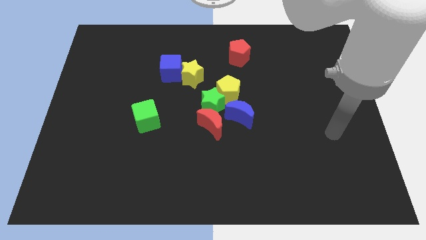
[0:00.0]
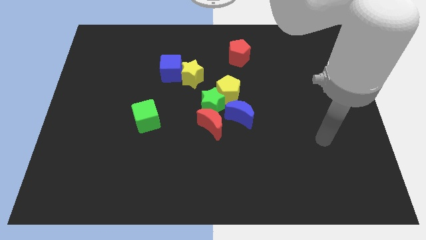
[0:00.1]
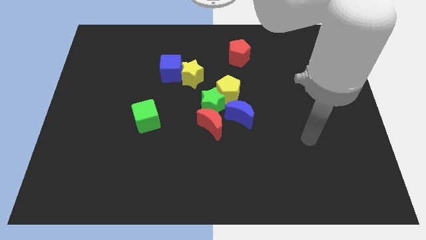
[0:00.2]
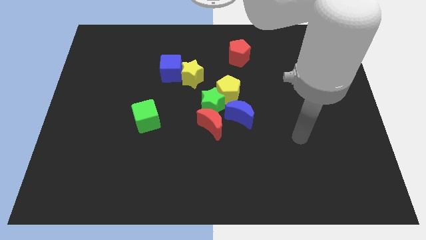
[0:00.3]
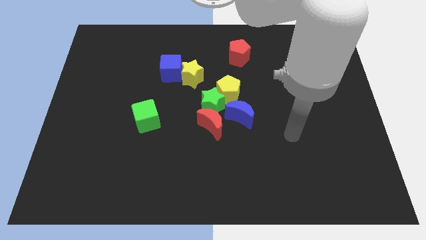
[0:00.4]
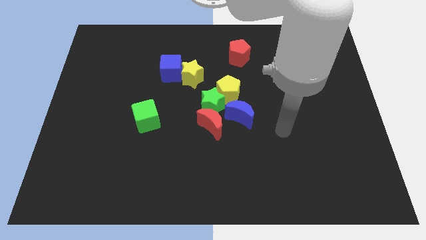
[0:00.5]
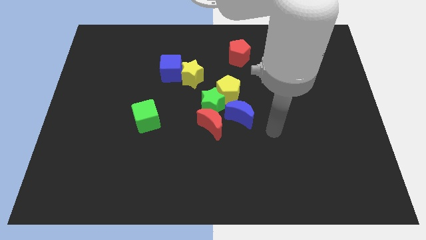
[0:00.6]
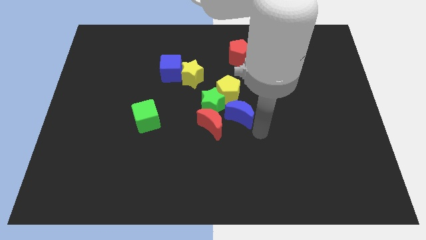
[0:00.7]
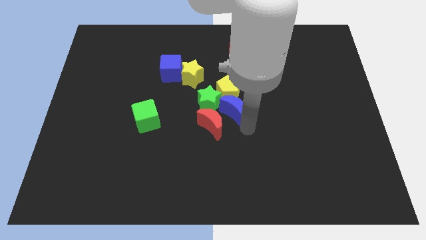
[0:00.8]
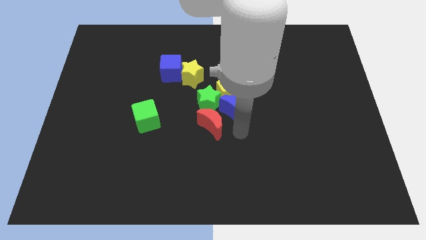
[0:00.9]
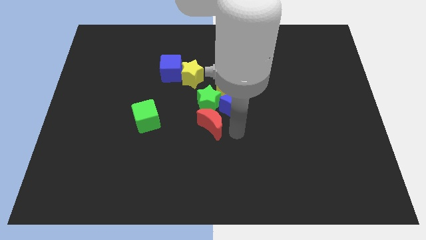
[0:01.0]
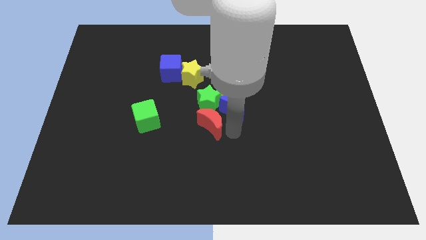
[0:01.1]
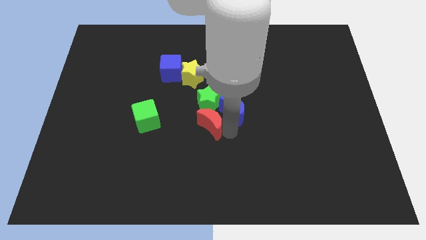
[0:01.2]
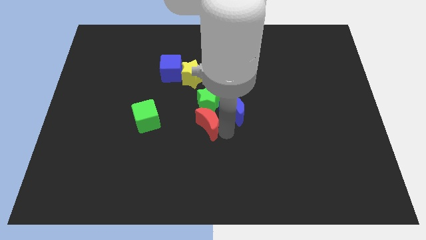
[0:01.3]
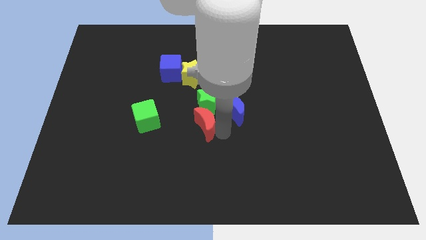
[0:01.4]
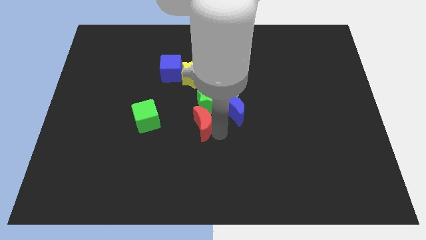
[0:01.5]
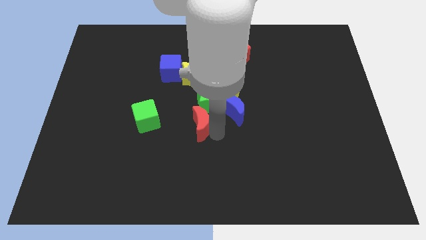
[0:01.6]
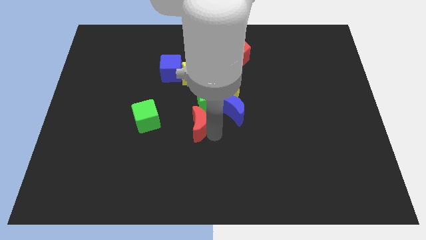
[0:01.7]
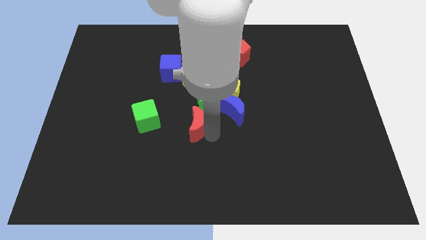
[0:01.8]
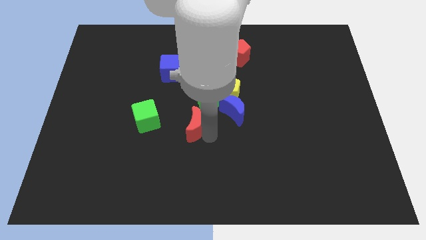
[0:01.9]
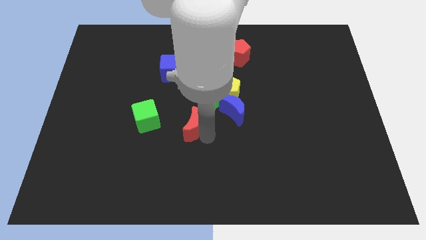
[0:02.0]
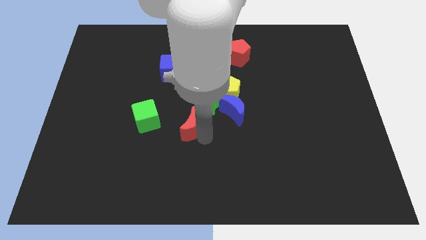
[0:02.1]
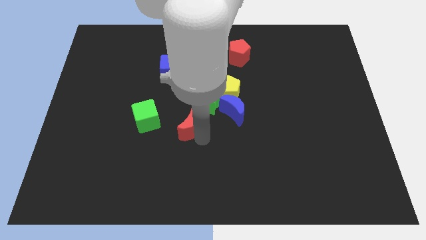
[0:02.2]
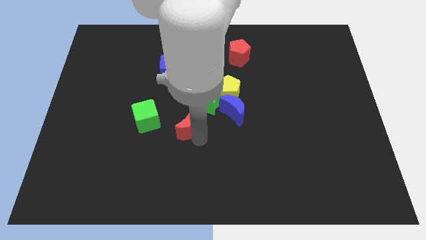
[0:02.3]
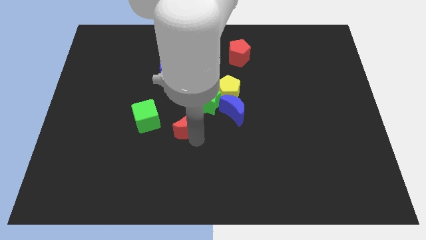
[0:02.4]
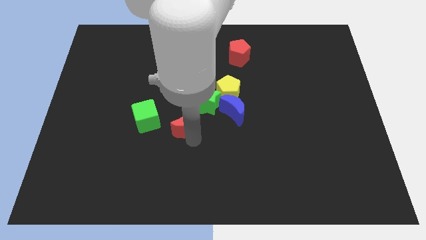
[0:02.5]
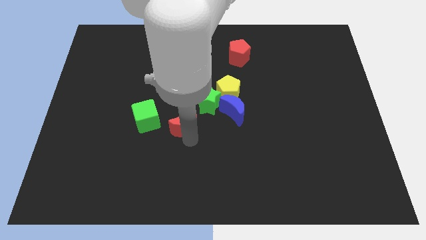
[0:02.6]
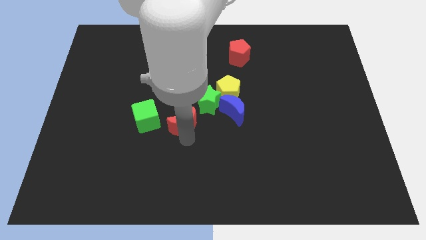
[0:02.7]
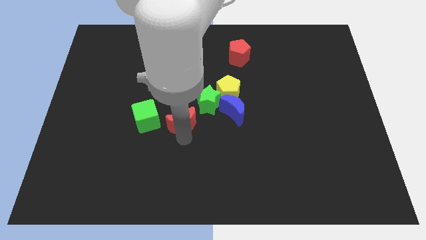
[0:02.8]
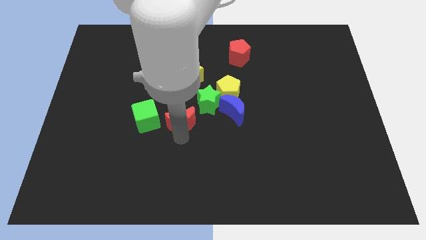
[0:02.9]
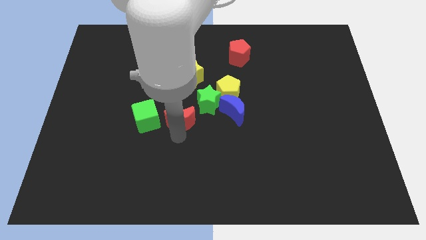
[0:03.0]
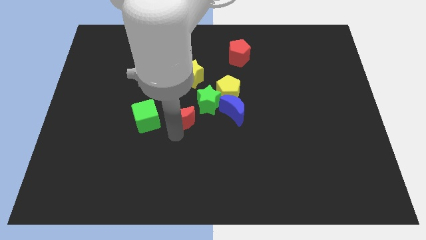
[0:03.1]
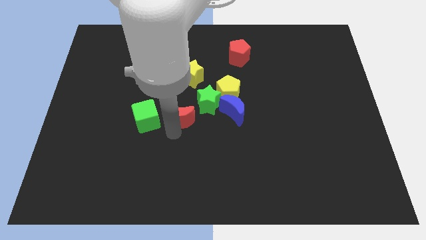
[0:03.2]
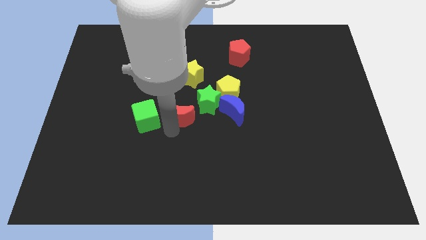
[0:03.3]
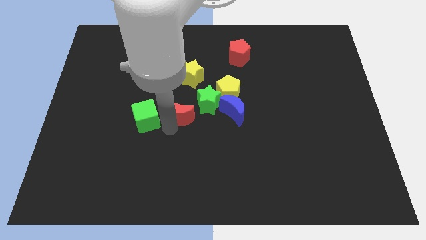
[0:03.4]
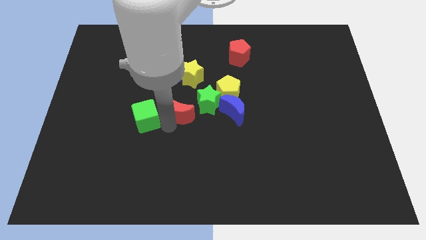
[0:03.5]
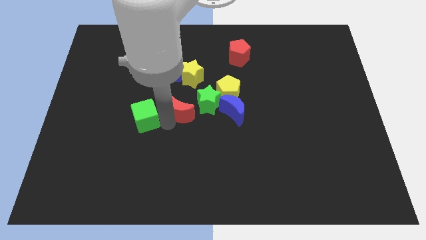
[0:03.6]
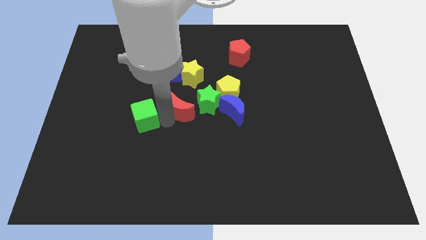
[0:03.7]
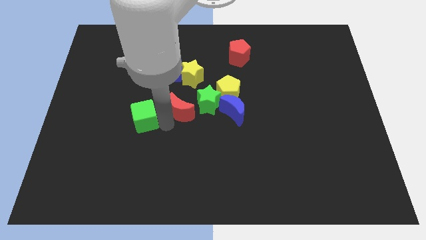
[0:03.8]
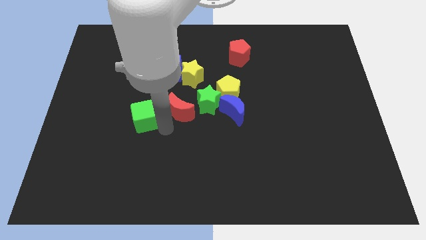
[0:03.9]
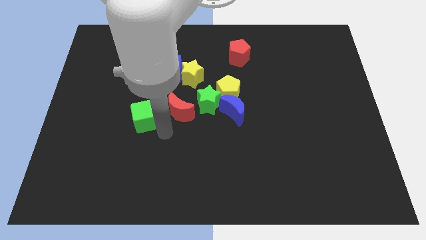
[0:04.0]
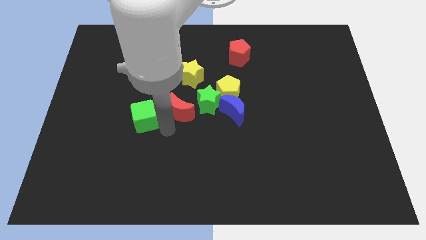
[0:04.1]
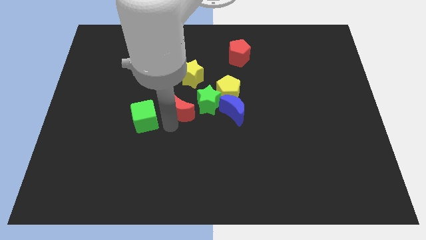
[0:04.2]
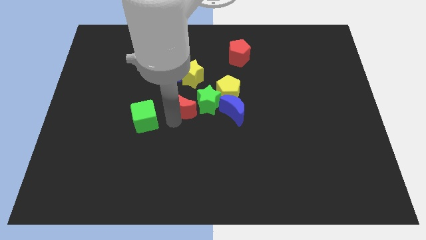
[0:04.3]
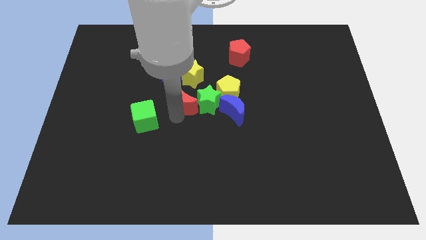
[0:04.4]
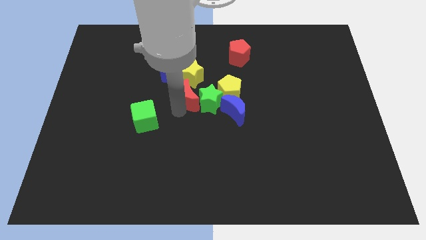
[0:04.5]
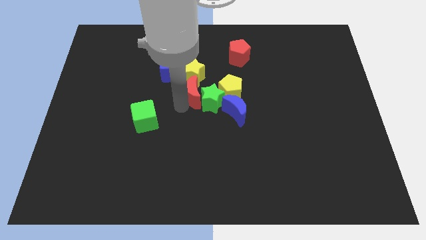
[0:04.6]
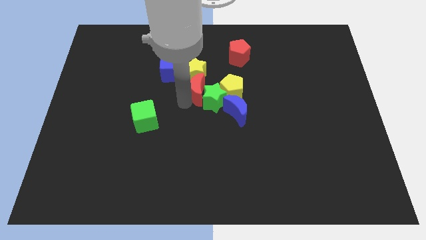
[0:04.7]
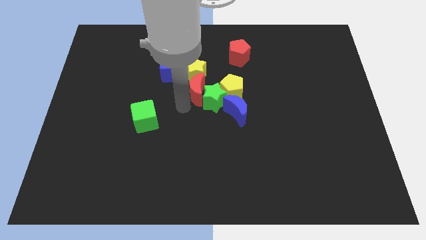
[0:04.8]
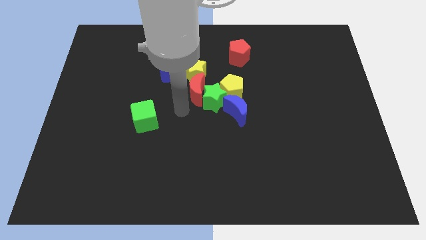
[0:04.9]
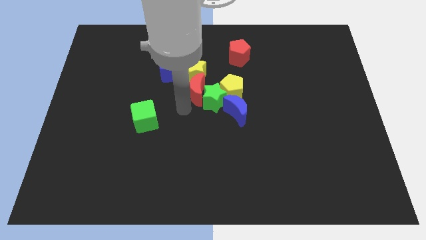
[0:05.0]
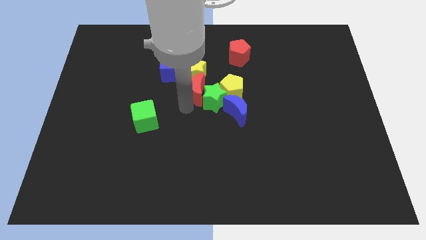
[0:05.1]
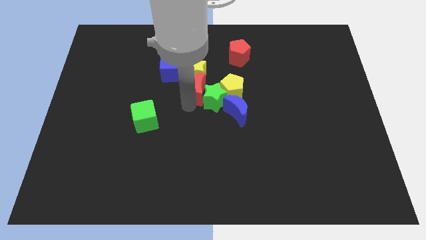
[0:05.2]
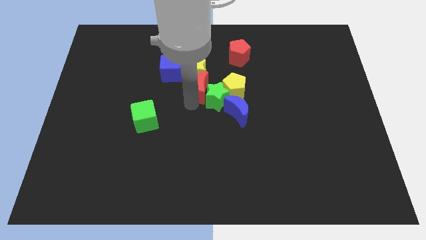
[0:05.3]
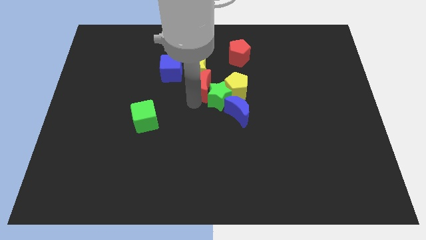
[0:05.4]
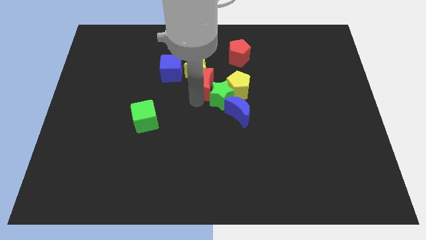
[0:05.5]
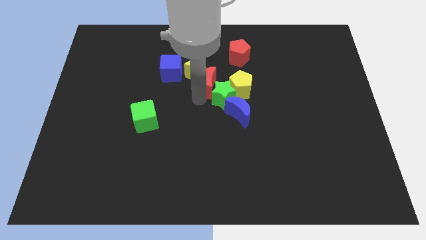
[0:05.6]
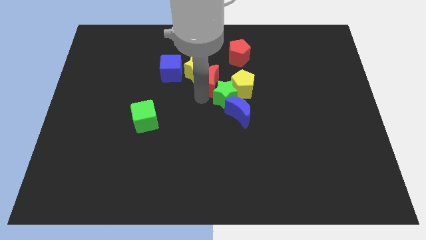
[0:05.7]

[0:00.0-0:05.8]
push the red moon to the top left of the yellow pentagon

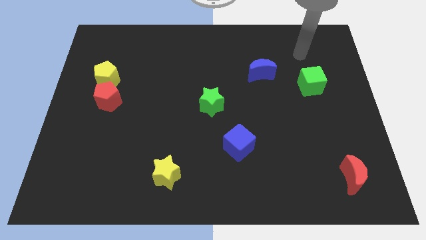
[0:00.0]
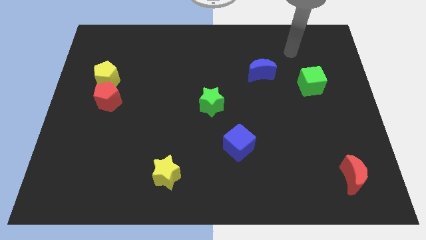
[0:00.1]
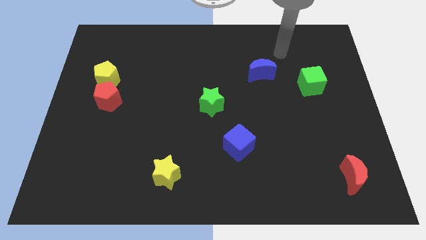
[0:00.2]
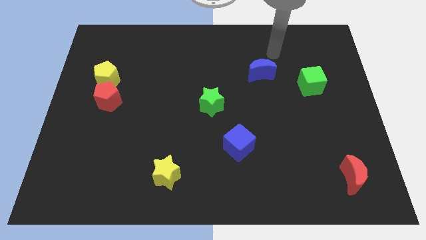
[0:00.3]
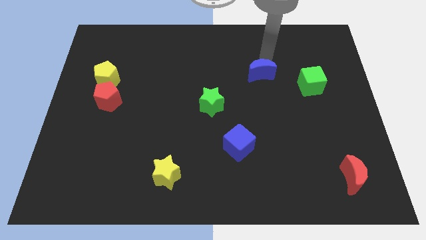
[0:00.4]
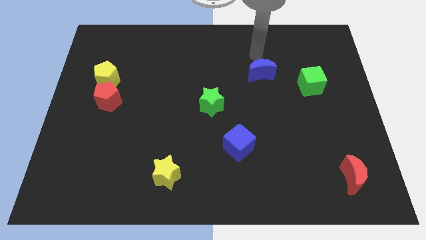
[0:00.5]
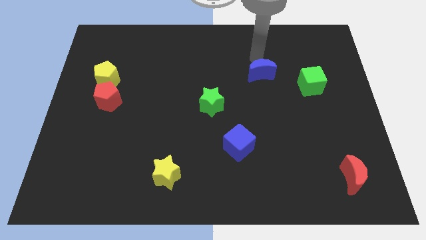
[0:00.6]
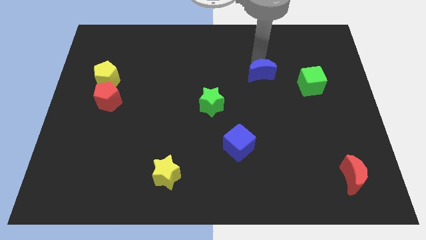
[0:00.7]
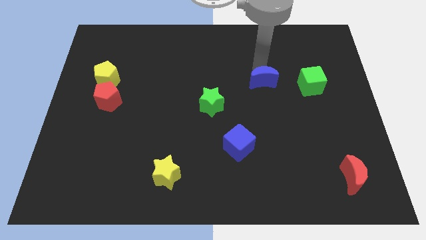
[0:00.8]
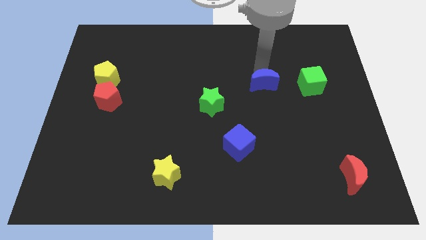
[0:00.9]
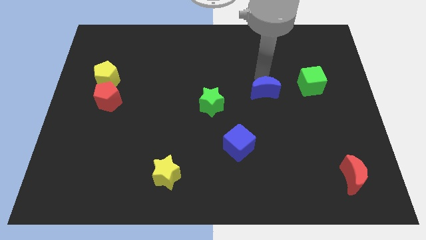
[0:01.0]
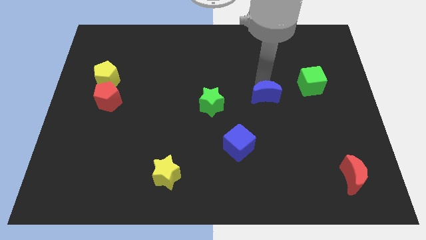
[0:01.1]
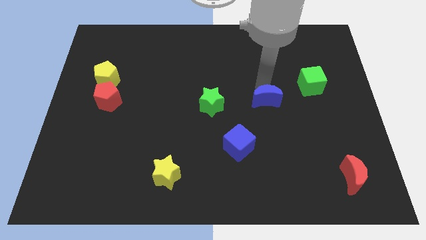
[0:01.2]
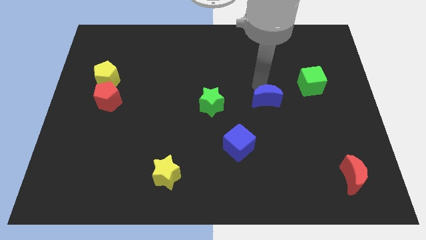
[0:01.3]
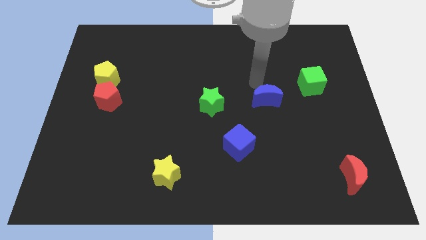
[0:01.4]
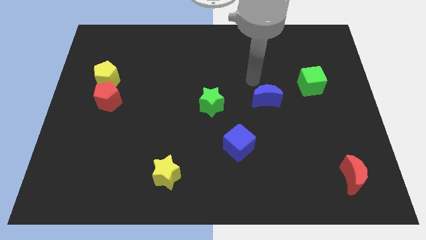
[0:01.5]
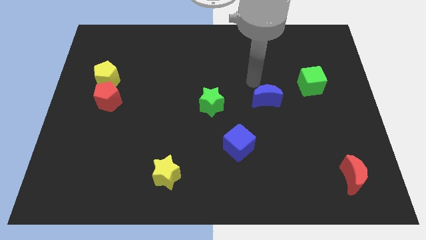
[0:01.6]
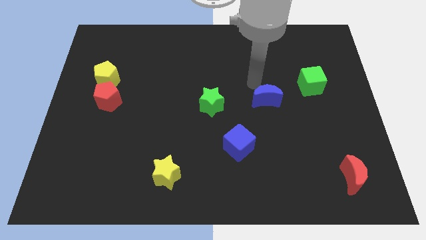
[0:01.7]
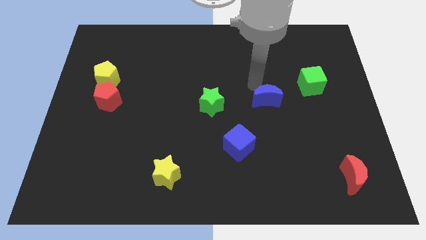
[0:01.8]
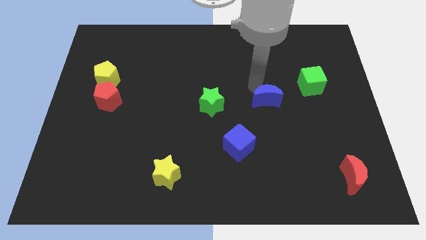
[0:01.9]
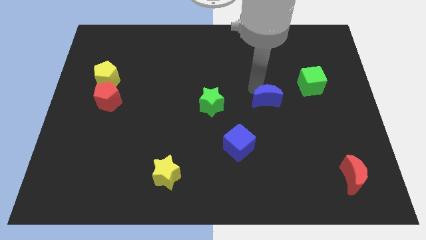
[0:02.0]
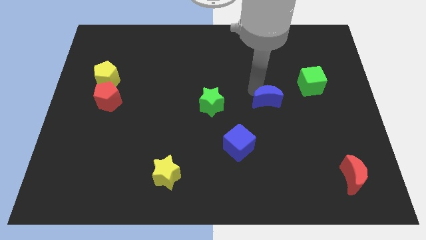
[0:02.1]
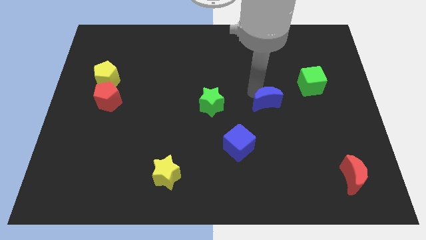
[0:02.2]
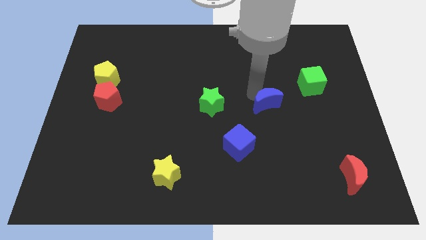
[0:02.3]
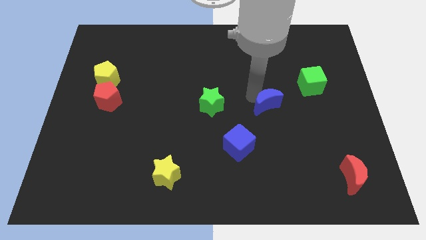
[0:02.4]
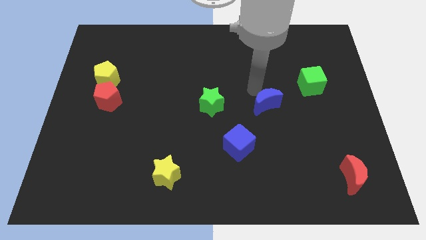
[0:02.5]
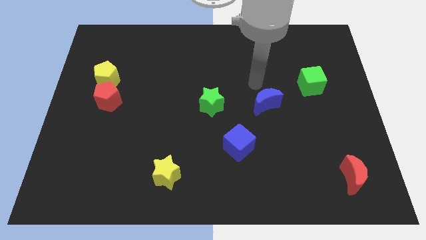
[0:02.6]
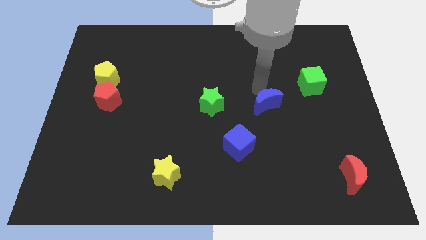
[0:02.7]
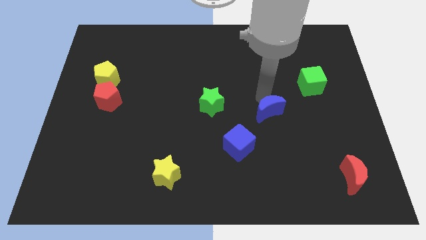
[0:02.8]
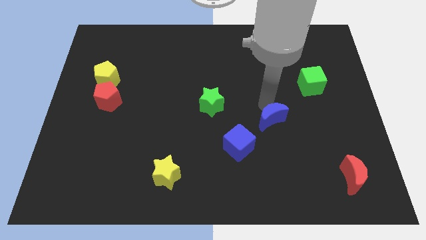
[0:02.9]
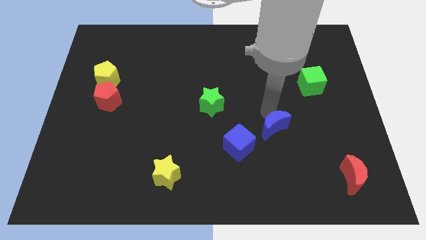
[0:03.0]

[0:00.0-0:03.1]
push the blue moon to the right side of the blue cube
